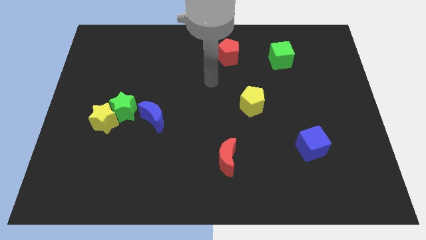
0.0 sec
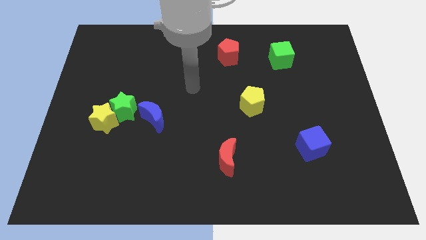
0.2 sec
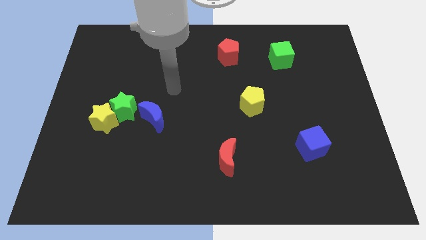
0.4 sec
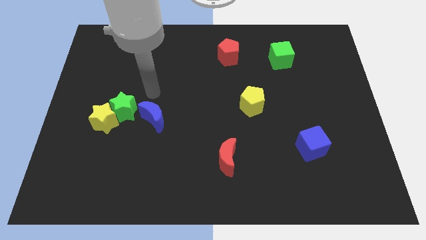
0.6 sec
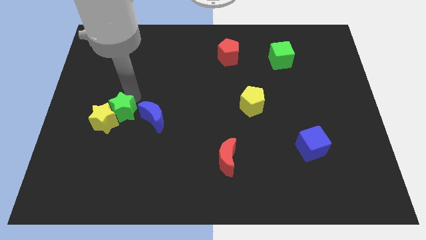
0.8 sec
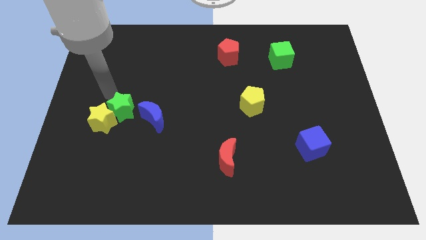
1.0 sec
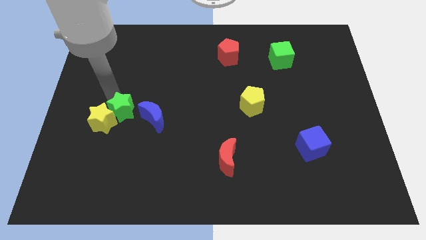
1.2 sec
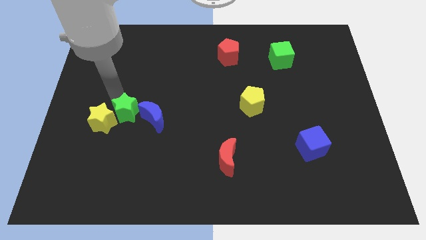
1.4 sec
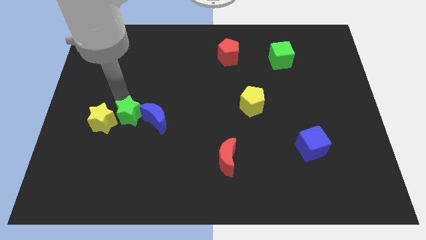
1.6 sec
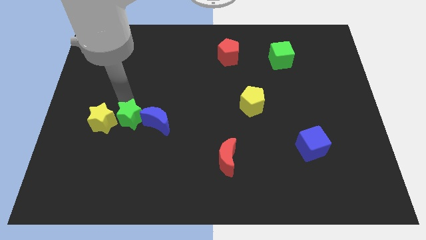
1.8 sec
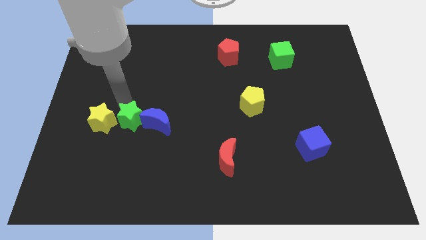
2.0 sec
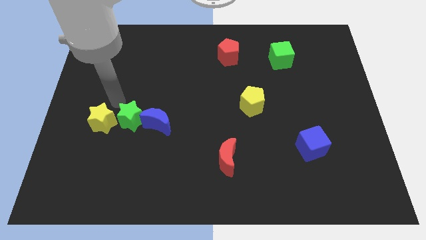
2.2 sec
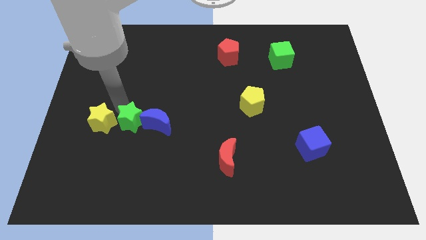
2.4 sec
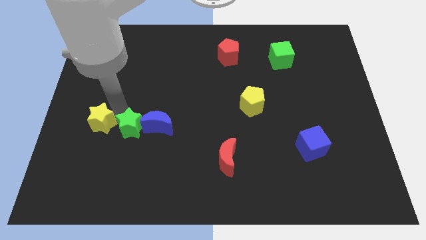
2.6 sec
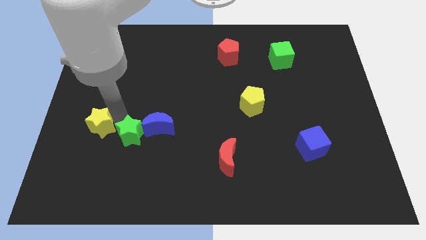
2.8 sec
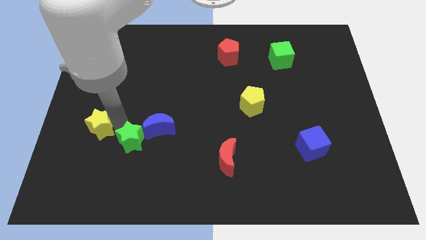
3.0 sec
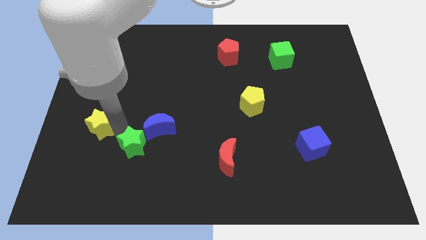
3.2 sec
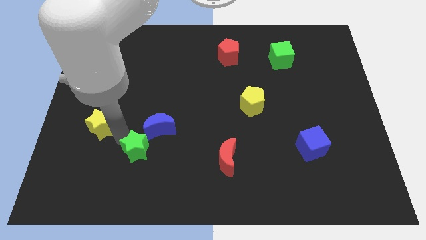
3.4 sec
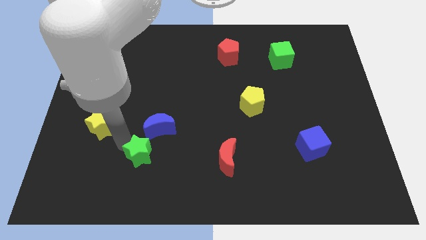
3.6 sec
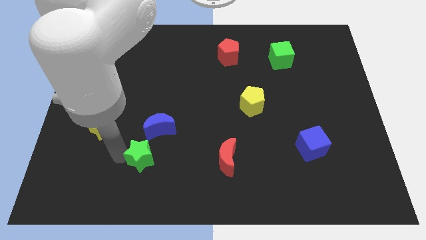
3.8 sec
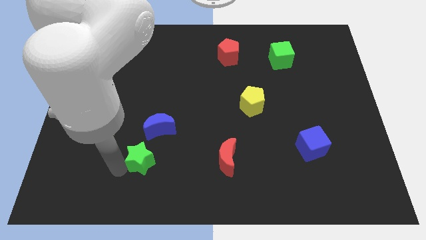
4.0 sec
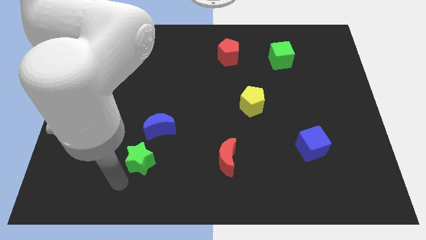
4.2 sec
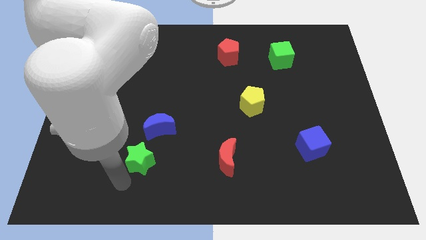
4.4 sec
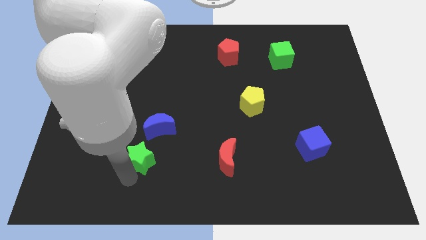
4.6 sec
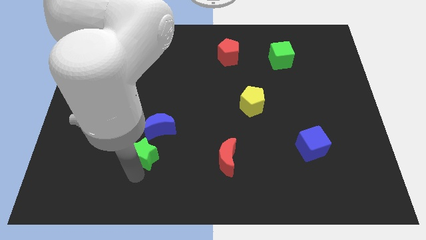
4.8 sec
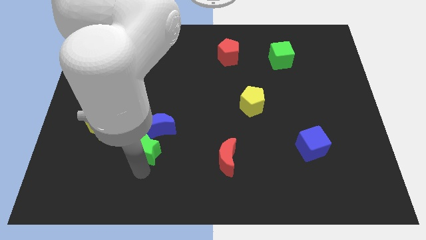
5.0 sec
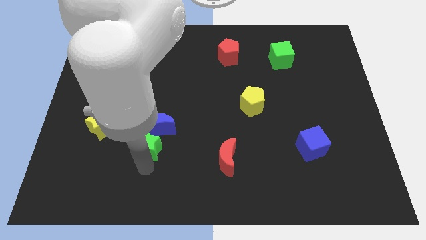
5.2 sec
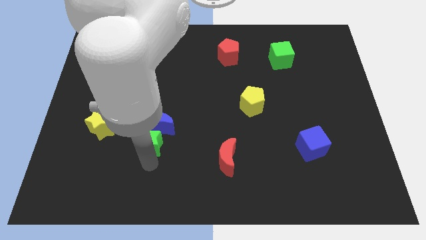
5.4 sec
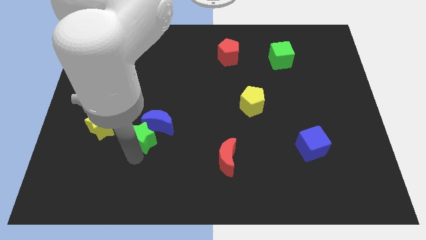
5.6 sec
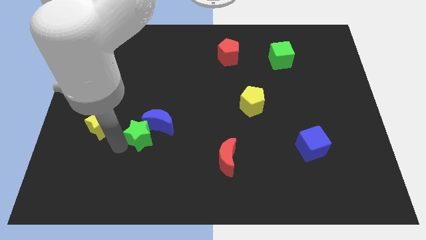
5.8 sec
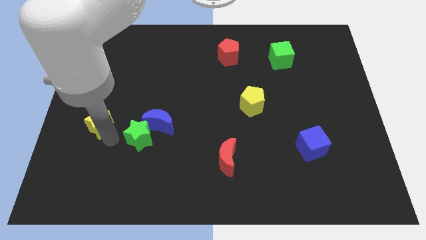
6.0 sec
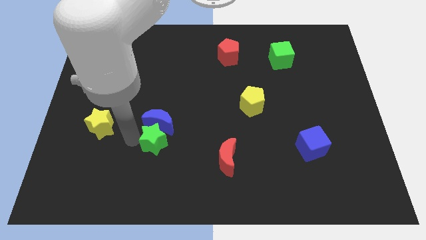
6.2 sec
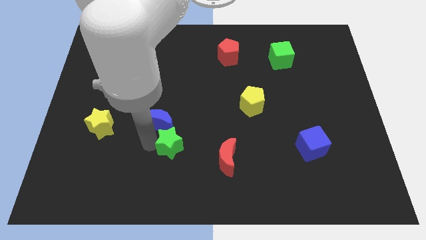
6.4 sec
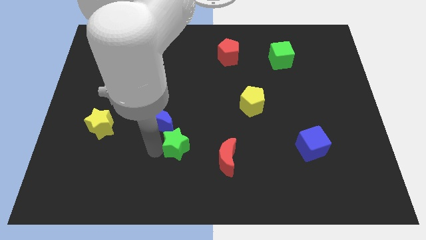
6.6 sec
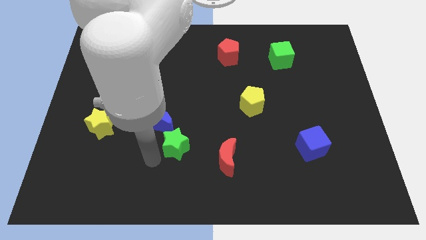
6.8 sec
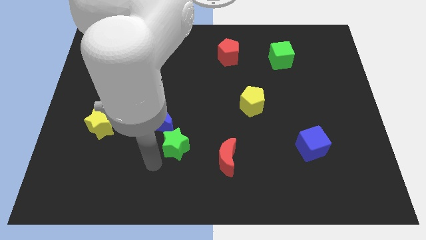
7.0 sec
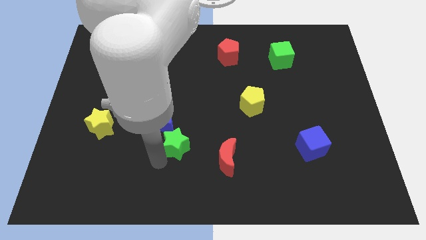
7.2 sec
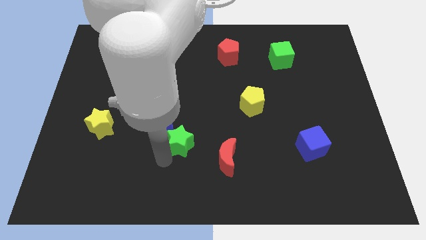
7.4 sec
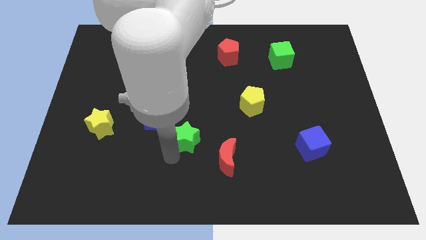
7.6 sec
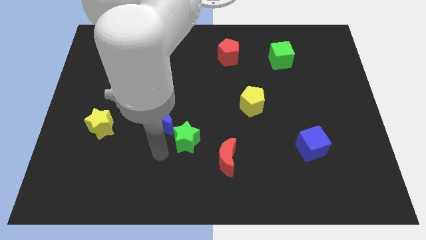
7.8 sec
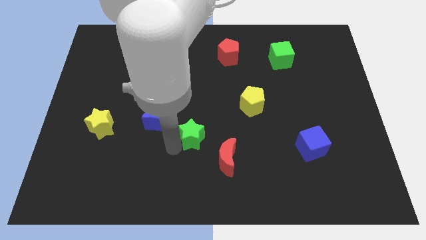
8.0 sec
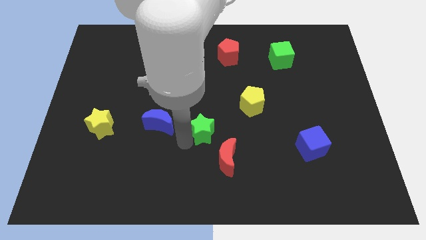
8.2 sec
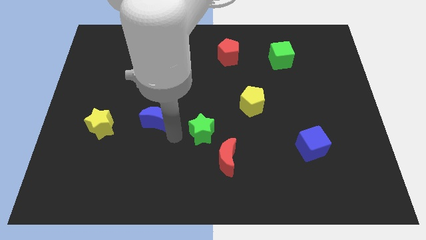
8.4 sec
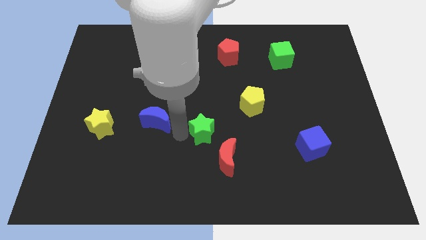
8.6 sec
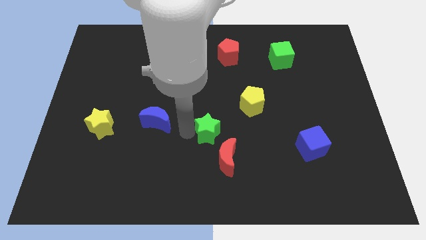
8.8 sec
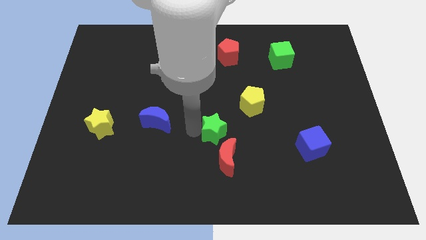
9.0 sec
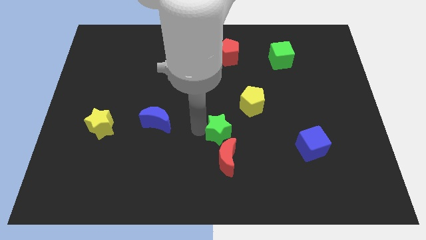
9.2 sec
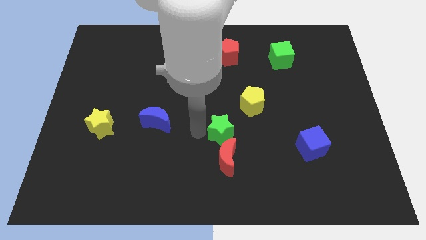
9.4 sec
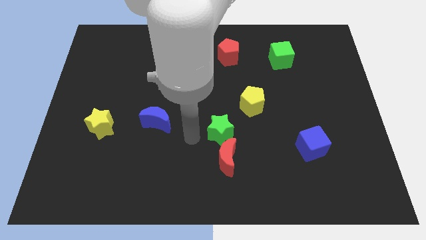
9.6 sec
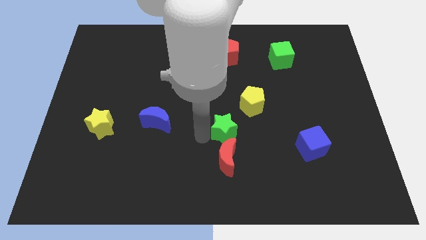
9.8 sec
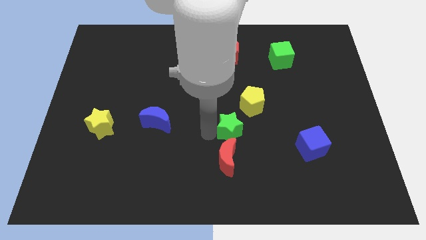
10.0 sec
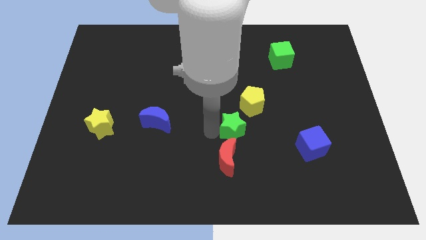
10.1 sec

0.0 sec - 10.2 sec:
slide the green star to the bottom of the yellow pentagon

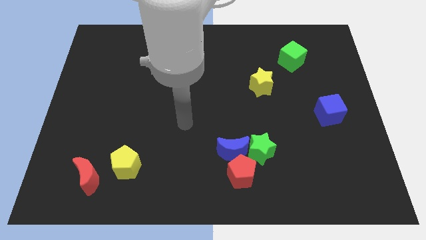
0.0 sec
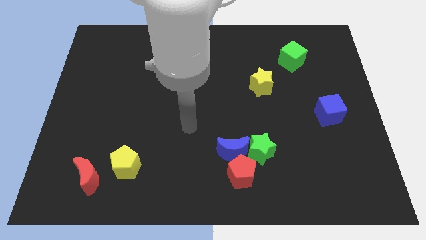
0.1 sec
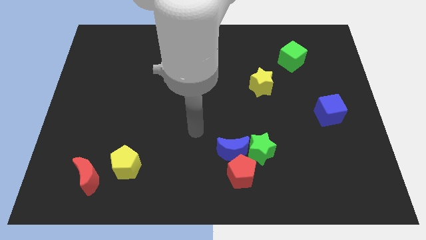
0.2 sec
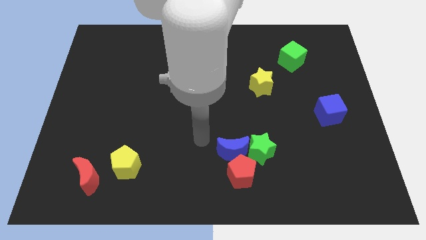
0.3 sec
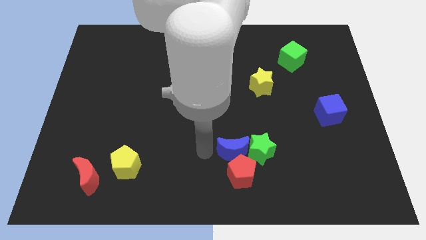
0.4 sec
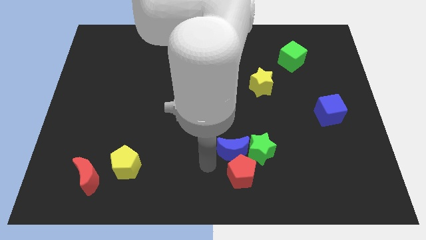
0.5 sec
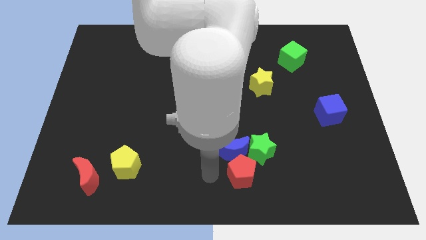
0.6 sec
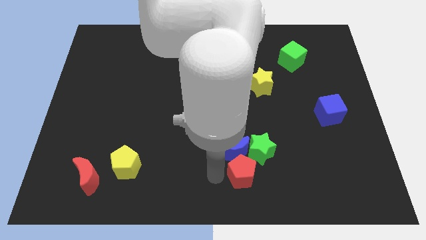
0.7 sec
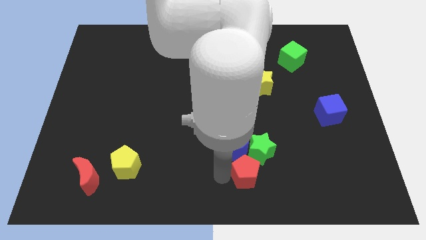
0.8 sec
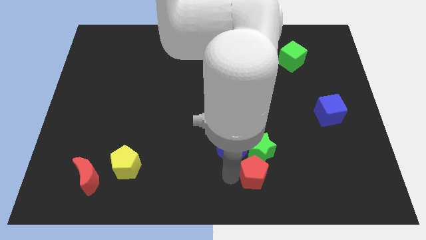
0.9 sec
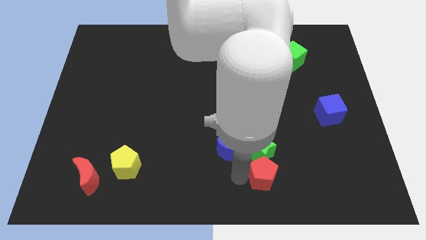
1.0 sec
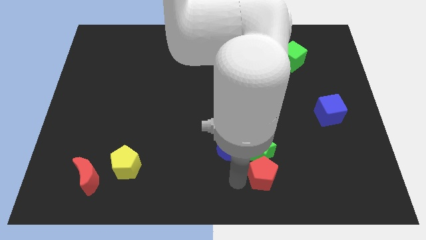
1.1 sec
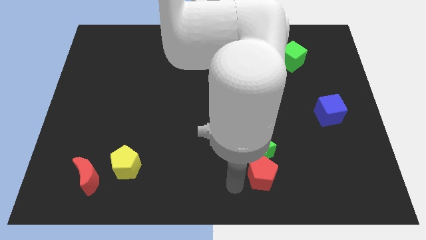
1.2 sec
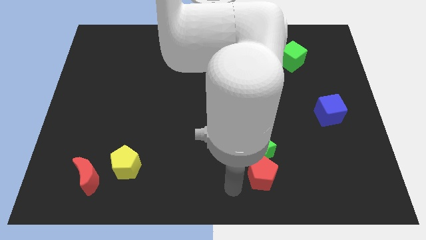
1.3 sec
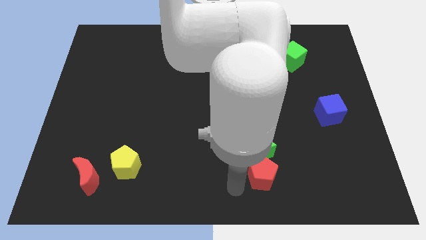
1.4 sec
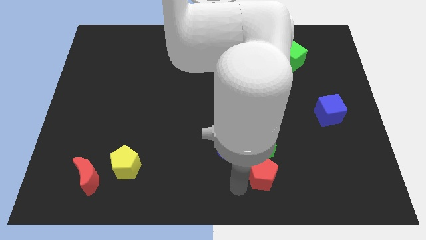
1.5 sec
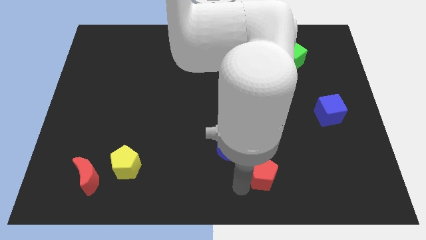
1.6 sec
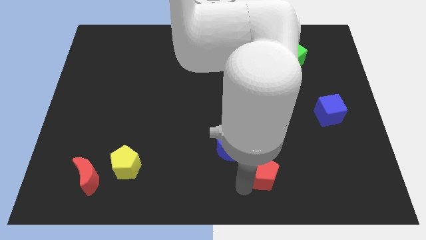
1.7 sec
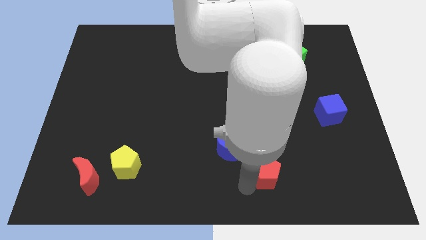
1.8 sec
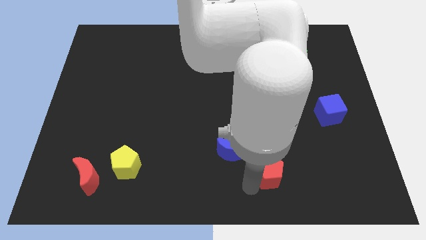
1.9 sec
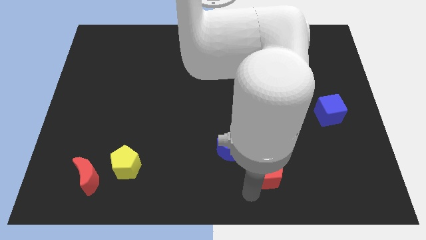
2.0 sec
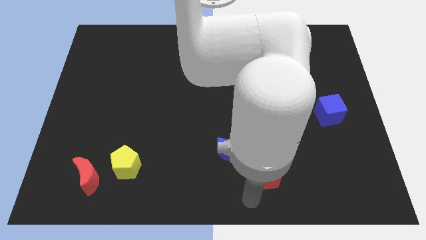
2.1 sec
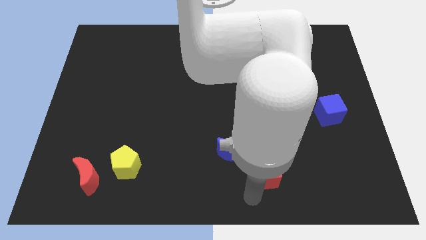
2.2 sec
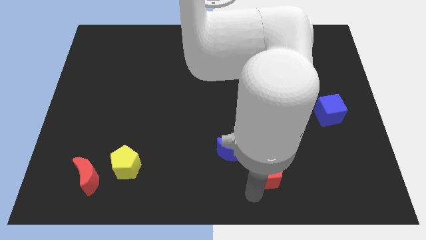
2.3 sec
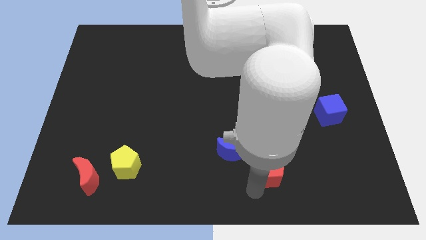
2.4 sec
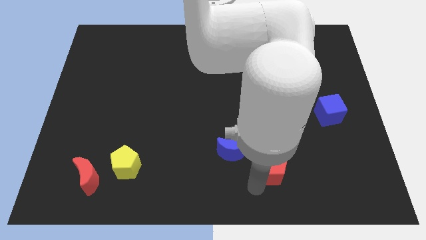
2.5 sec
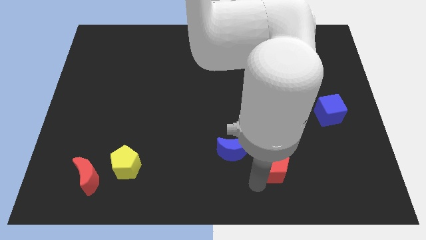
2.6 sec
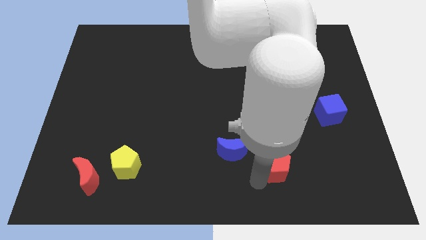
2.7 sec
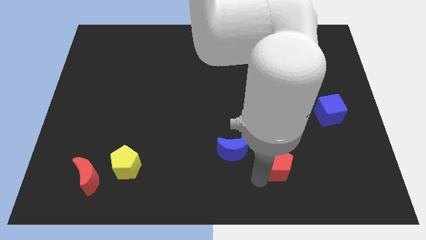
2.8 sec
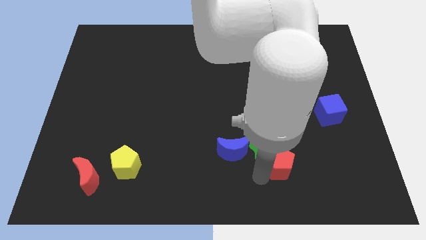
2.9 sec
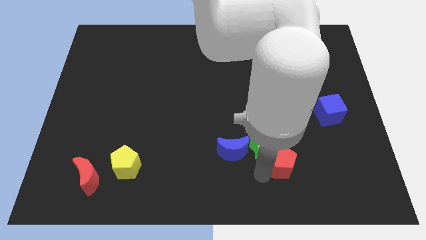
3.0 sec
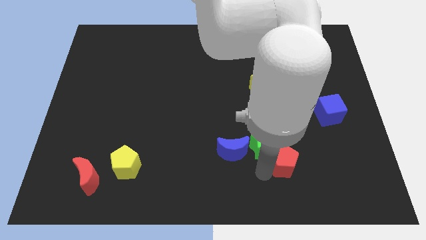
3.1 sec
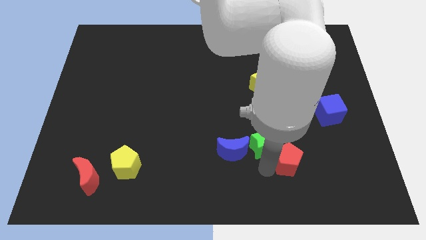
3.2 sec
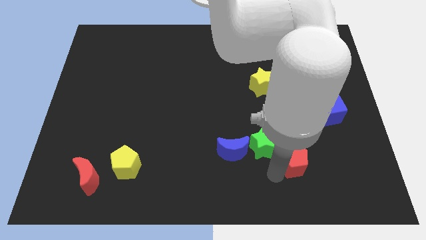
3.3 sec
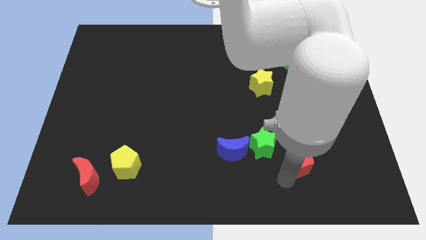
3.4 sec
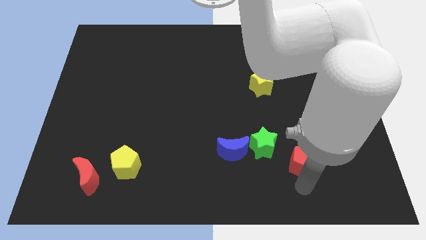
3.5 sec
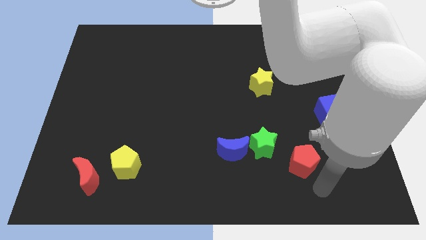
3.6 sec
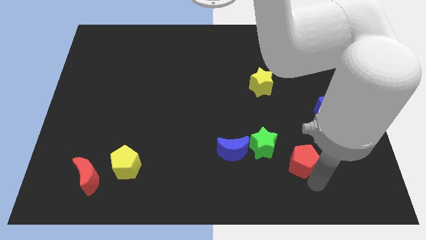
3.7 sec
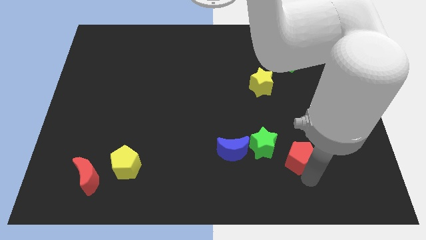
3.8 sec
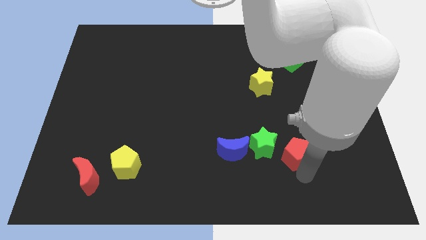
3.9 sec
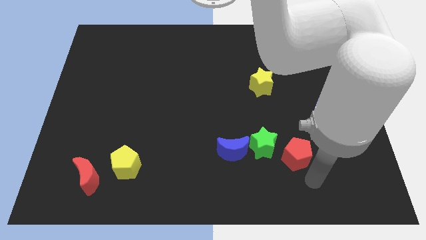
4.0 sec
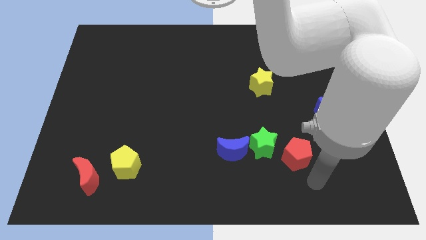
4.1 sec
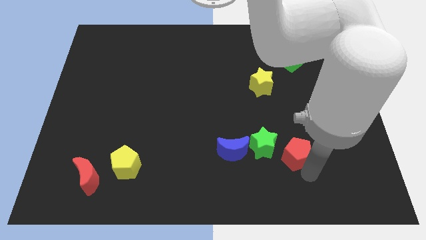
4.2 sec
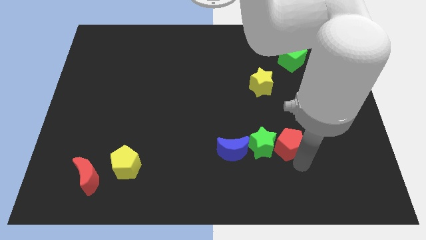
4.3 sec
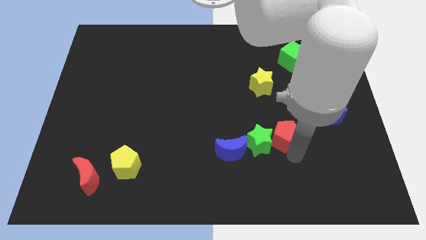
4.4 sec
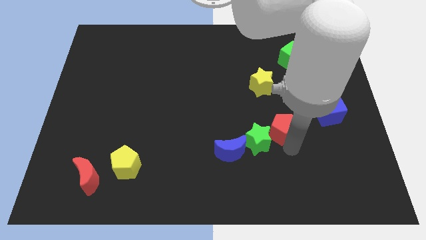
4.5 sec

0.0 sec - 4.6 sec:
put the red pentagon to the bottom side of the yellow star
